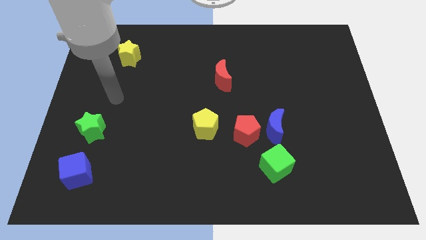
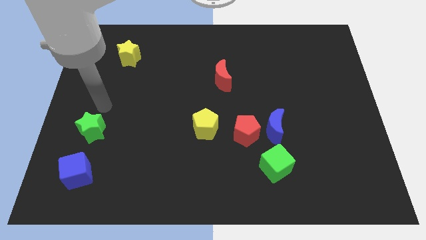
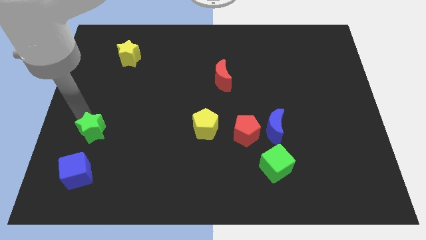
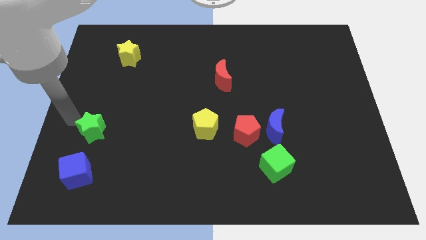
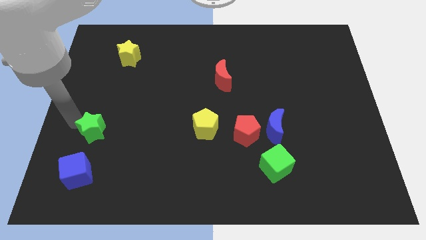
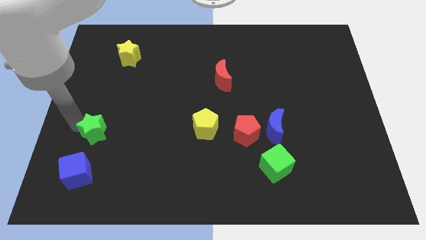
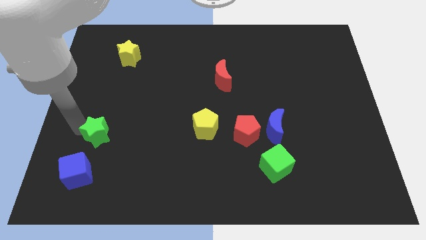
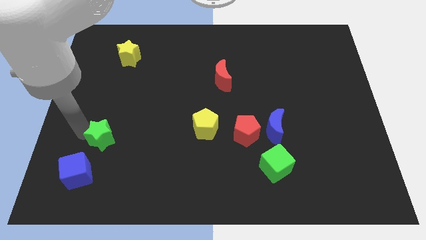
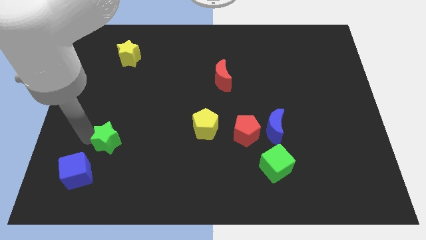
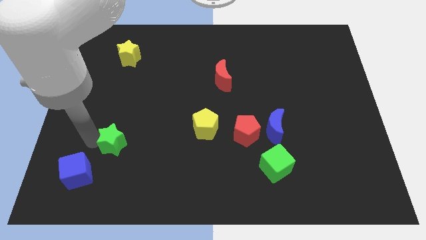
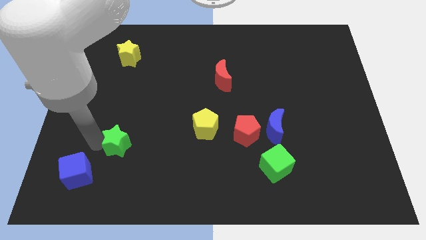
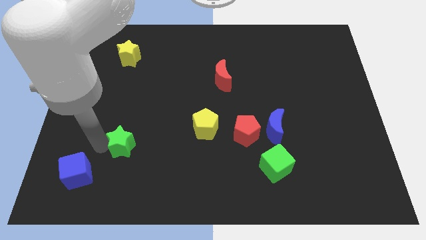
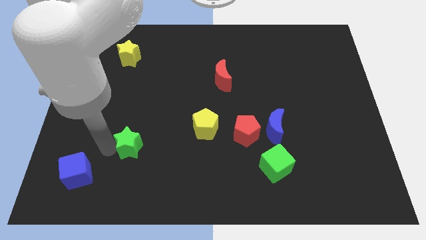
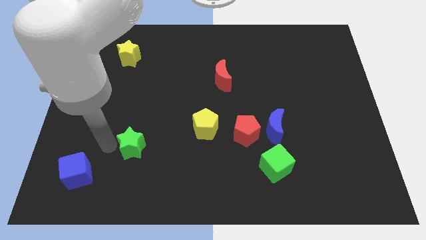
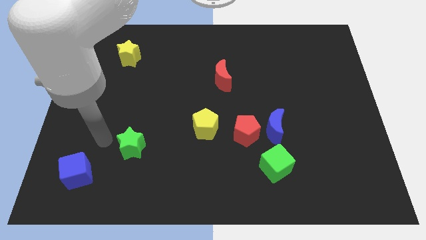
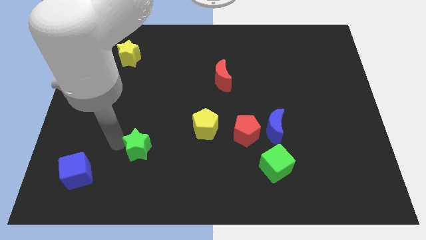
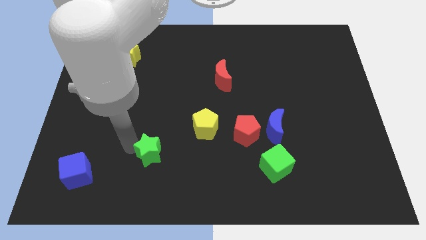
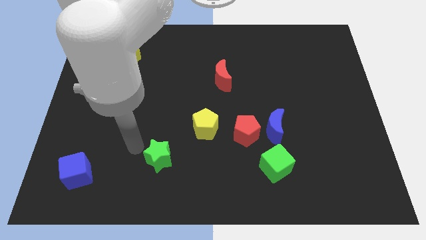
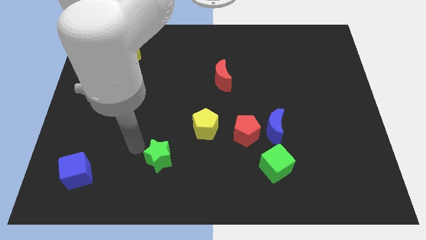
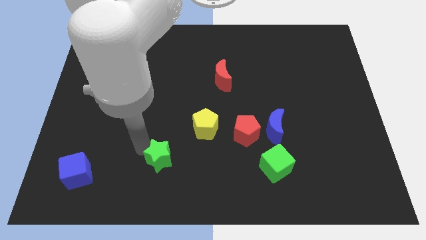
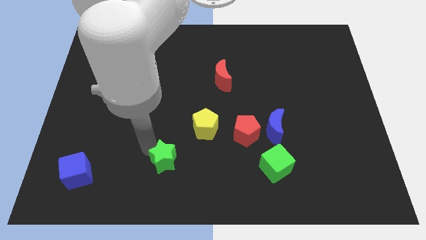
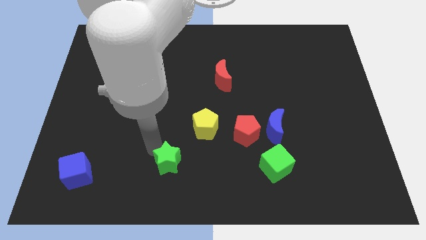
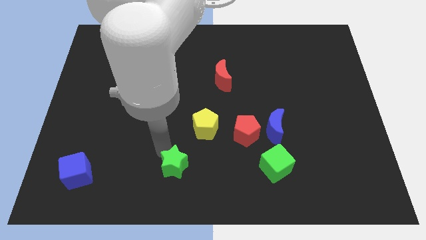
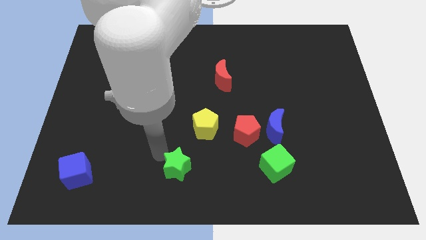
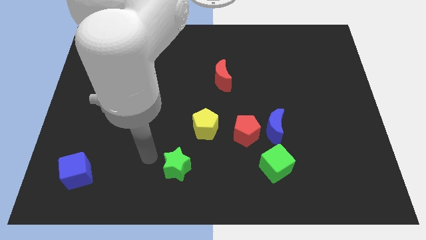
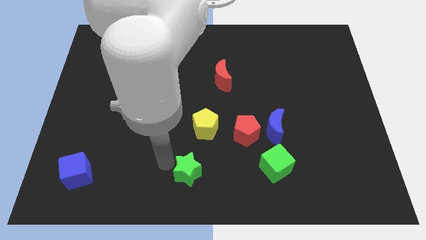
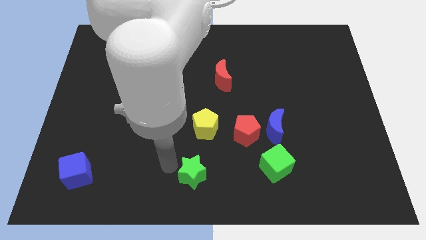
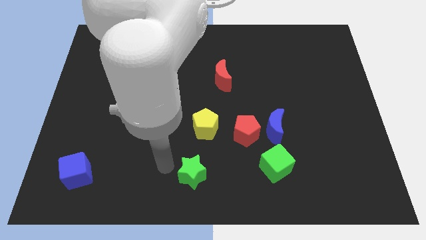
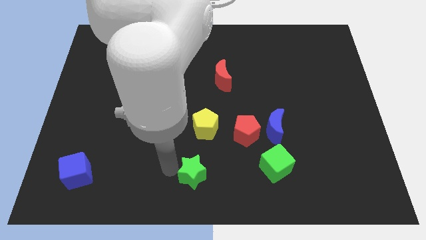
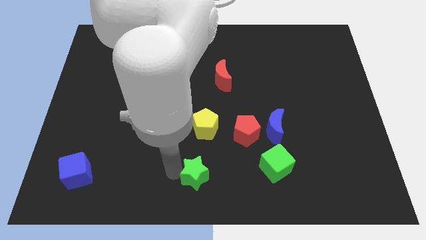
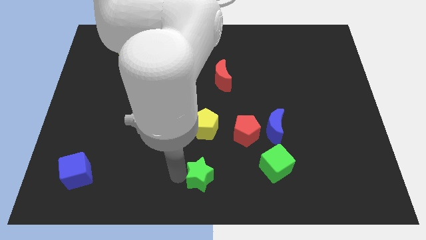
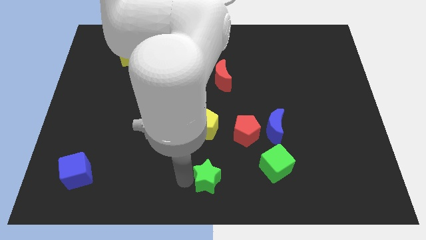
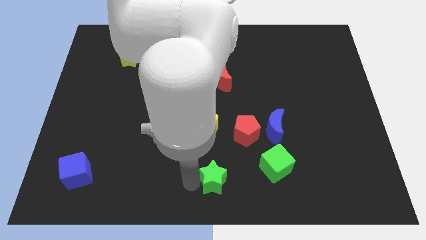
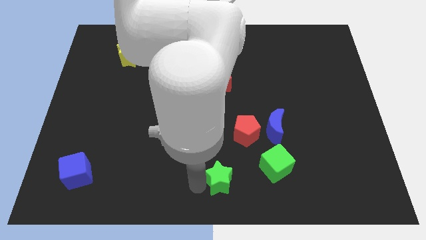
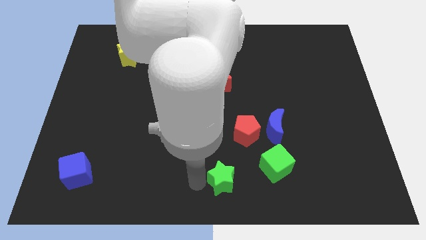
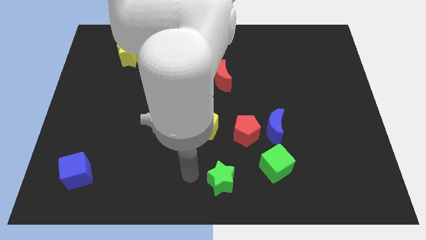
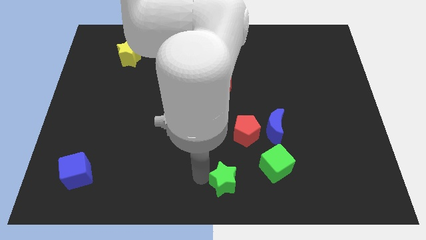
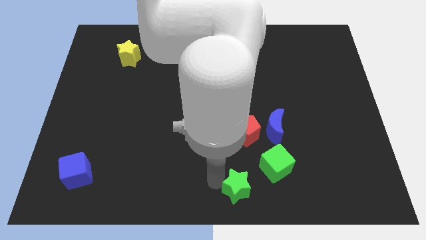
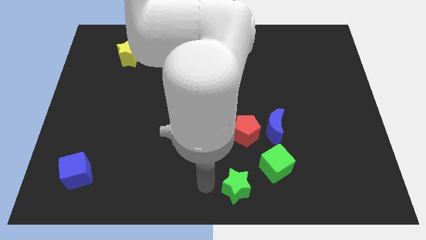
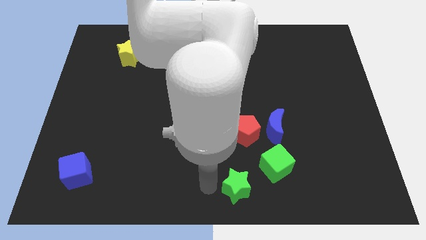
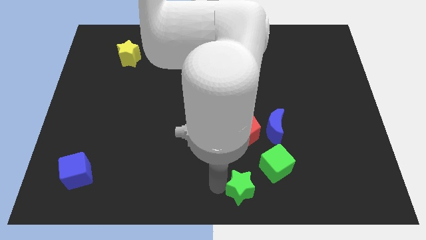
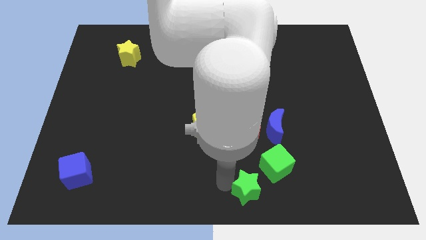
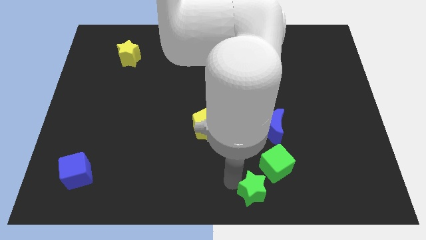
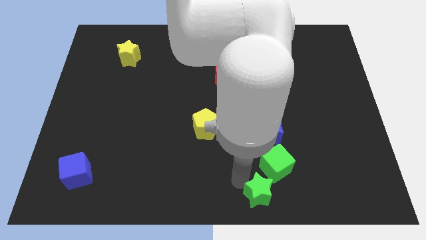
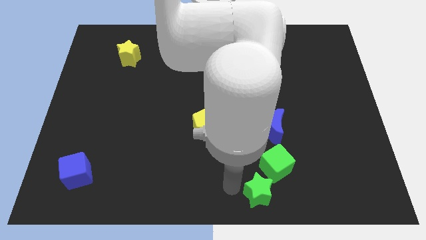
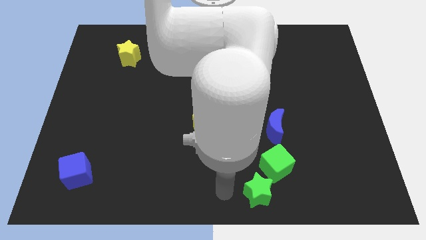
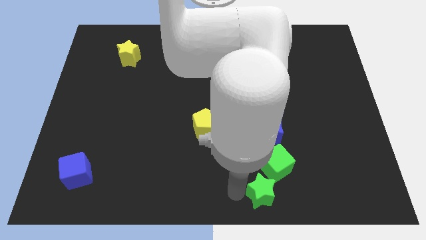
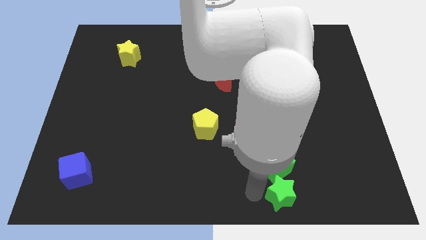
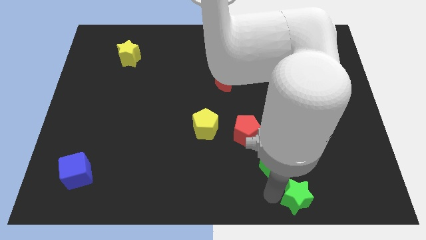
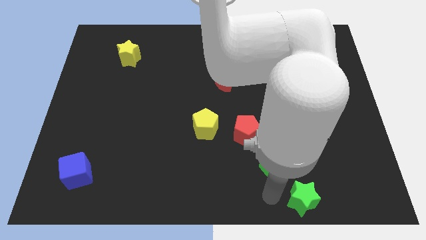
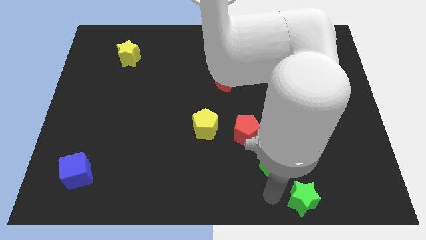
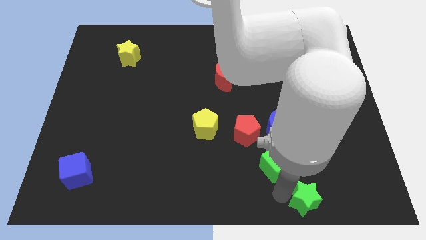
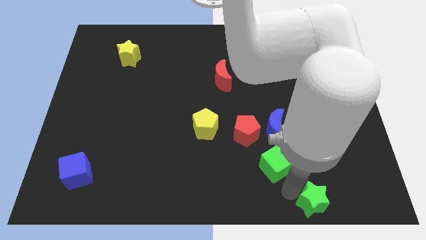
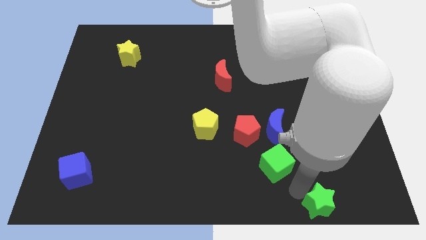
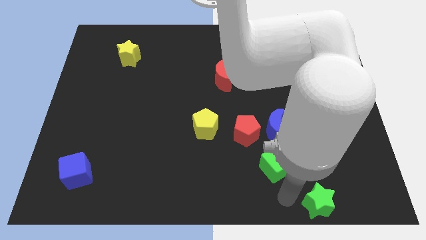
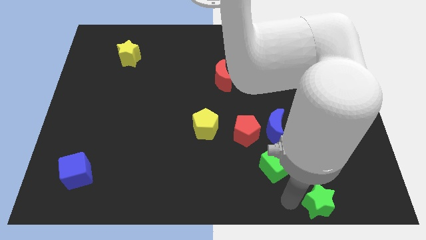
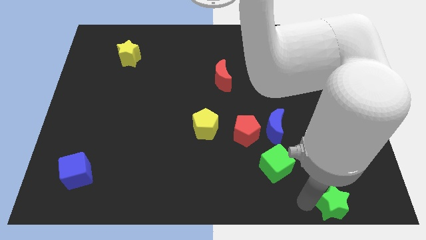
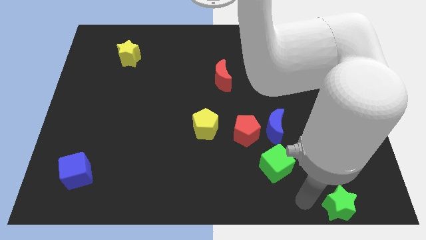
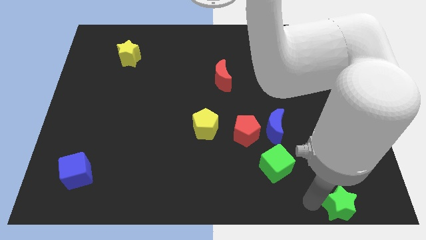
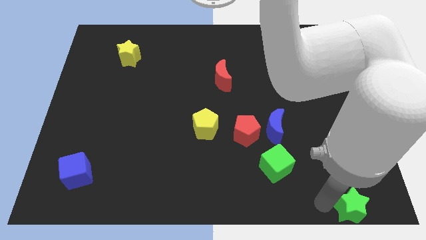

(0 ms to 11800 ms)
push the green star to the bottom right corner
